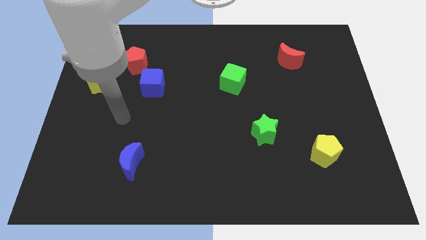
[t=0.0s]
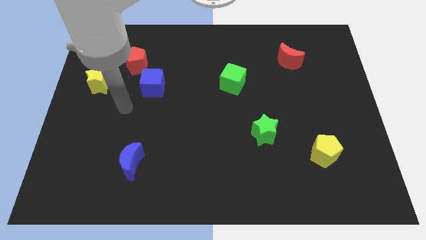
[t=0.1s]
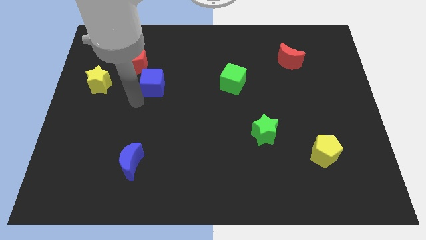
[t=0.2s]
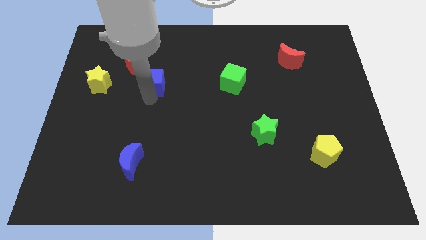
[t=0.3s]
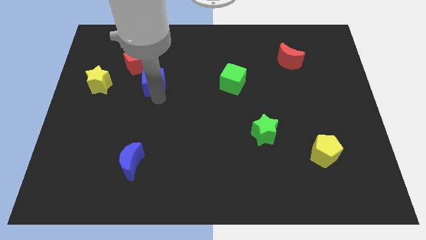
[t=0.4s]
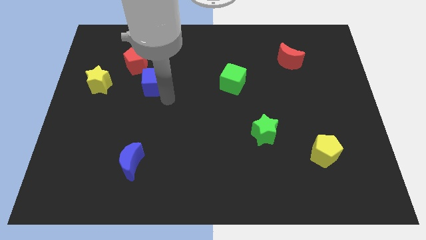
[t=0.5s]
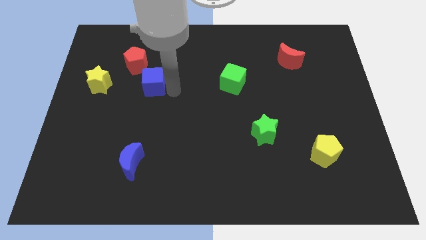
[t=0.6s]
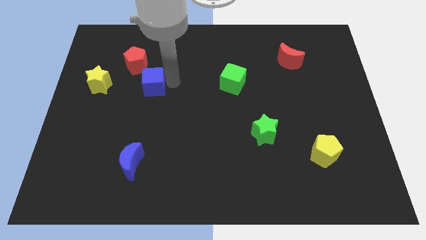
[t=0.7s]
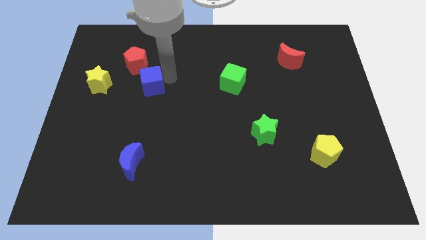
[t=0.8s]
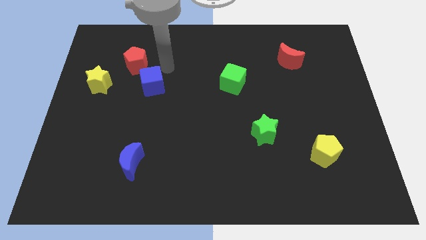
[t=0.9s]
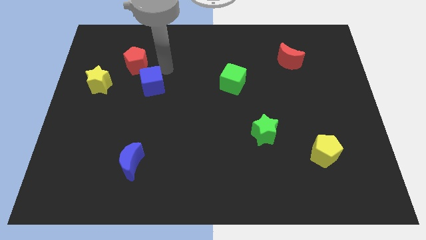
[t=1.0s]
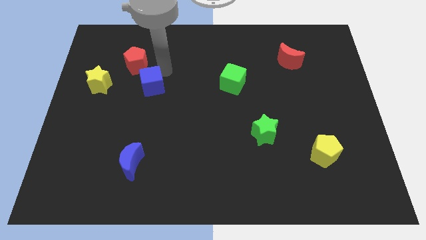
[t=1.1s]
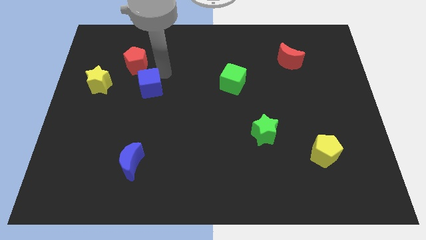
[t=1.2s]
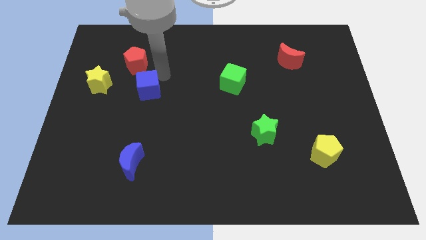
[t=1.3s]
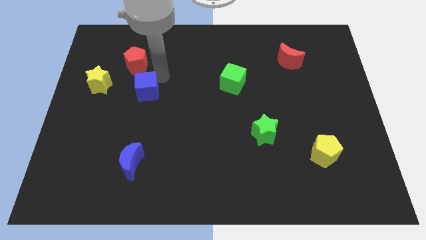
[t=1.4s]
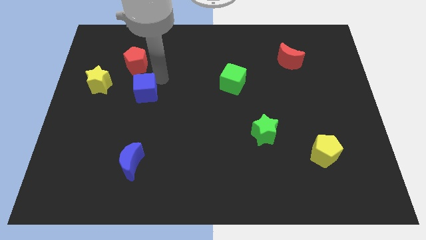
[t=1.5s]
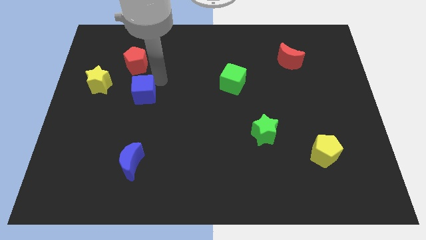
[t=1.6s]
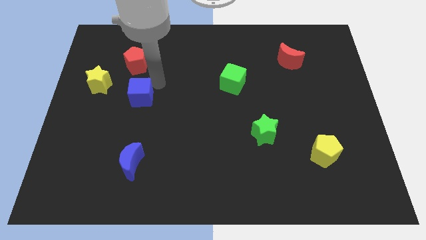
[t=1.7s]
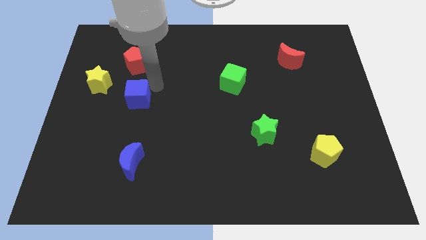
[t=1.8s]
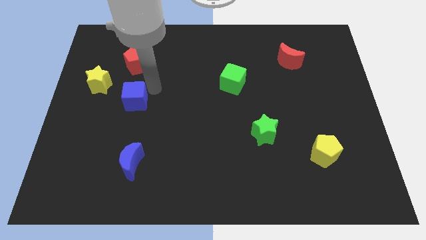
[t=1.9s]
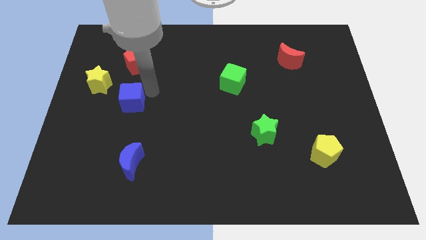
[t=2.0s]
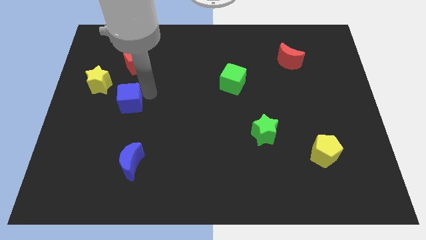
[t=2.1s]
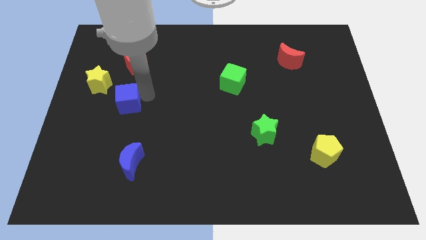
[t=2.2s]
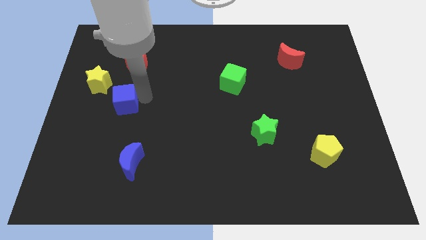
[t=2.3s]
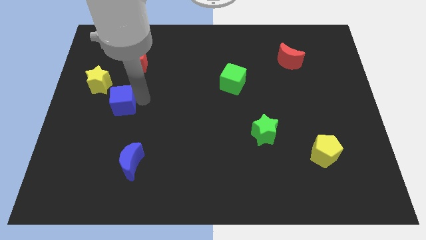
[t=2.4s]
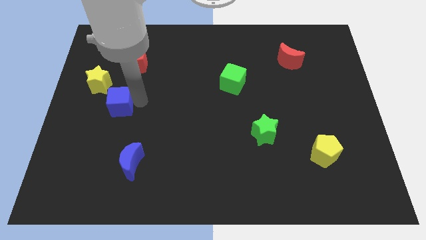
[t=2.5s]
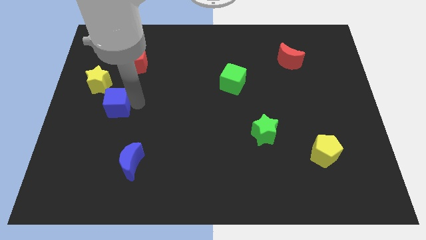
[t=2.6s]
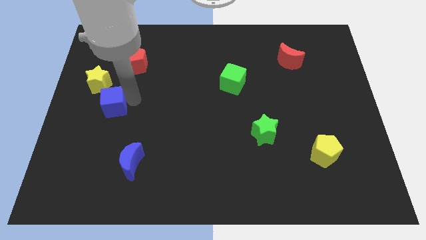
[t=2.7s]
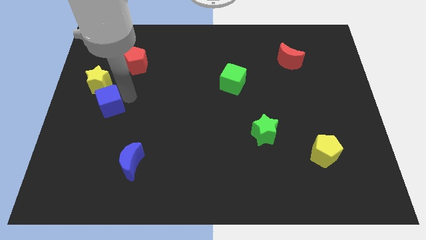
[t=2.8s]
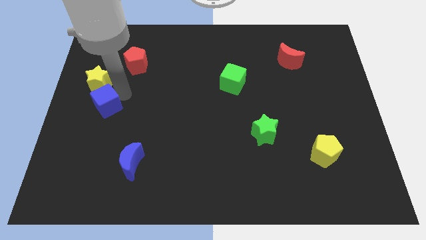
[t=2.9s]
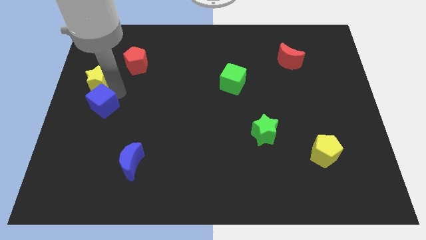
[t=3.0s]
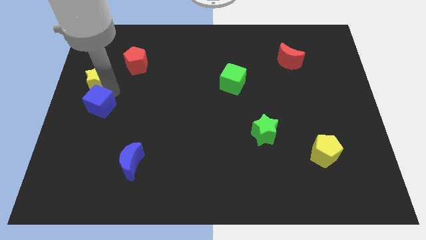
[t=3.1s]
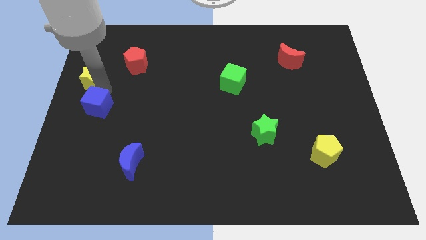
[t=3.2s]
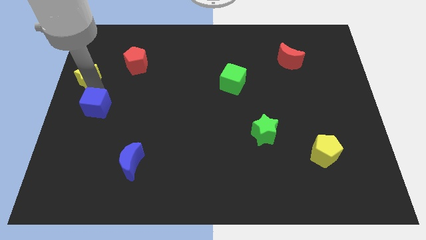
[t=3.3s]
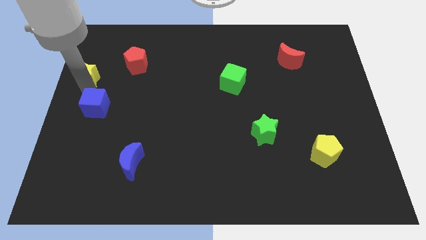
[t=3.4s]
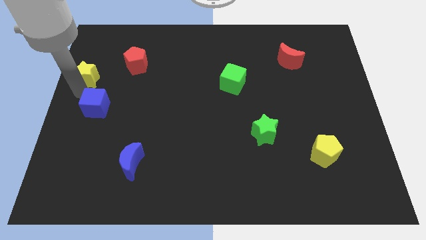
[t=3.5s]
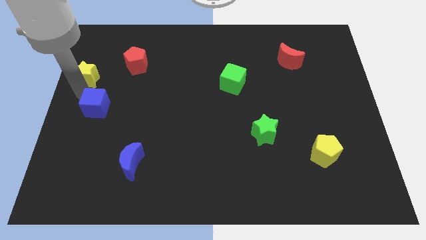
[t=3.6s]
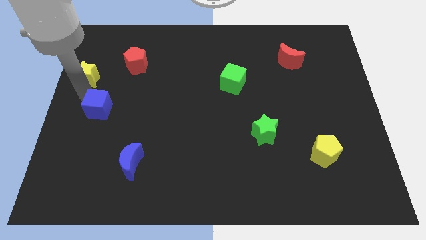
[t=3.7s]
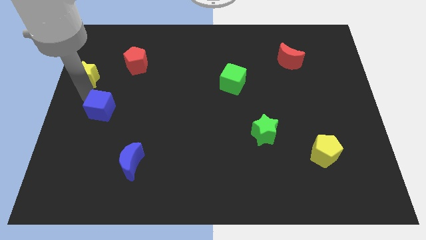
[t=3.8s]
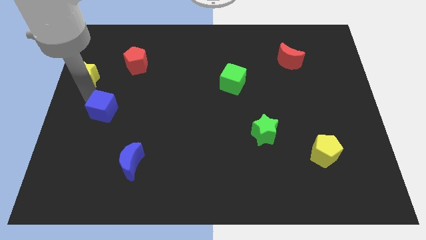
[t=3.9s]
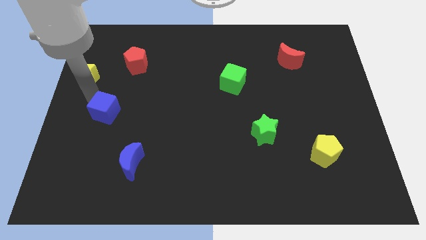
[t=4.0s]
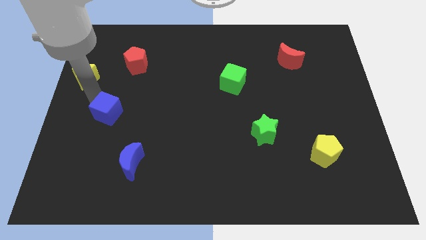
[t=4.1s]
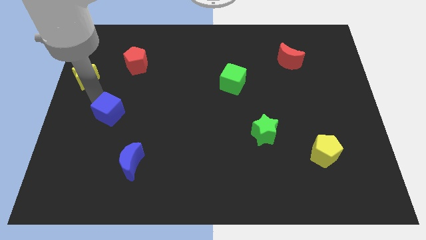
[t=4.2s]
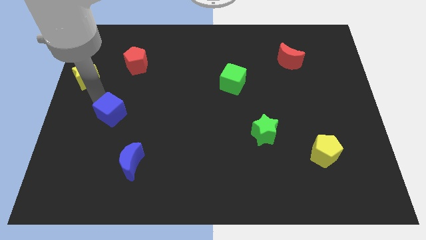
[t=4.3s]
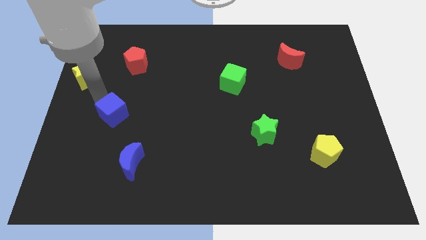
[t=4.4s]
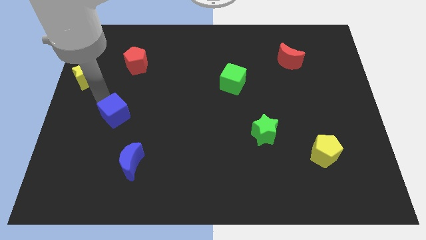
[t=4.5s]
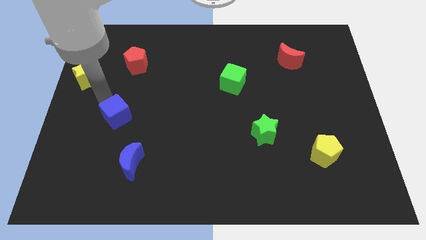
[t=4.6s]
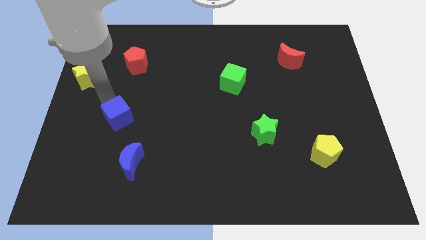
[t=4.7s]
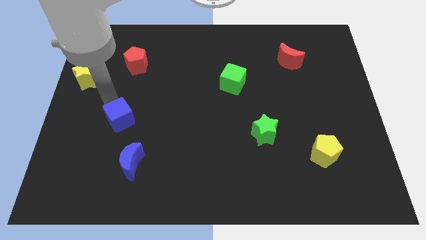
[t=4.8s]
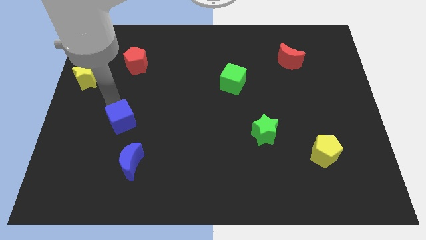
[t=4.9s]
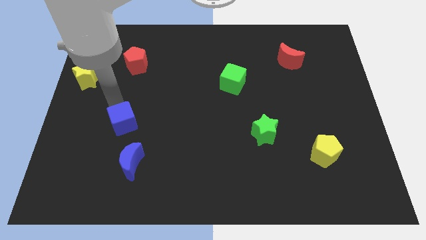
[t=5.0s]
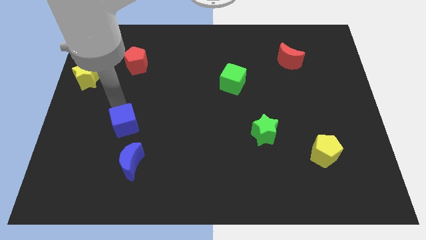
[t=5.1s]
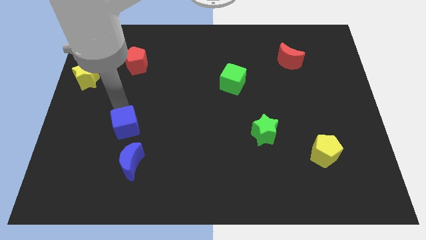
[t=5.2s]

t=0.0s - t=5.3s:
slide the blue cube to the top left of the blue moon

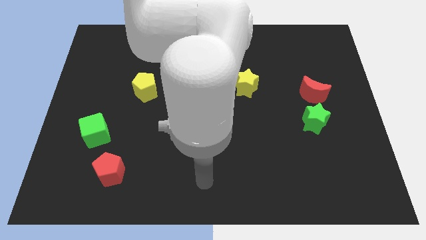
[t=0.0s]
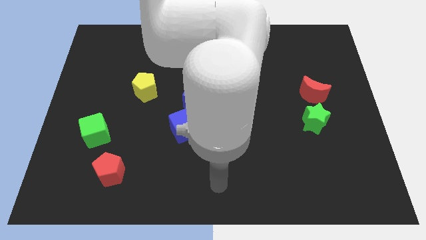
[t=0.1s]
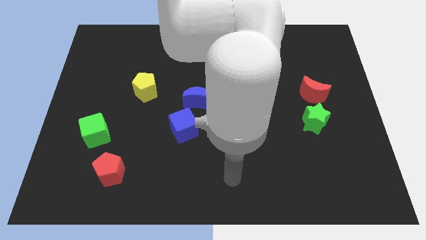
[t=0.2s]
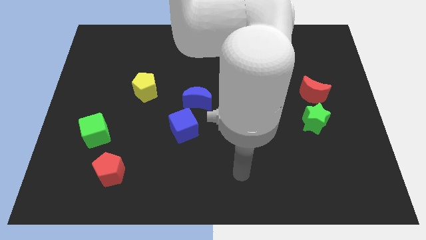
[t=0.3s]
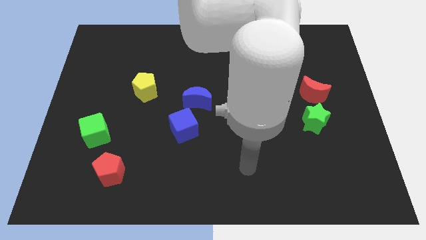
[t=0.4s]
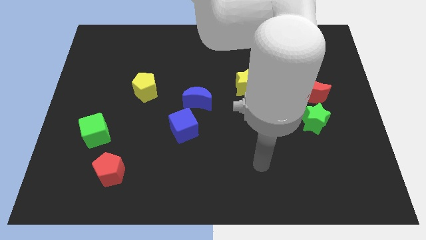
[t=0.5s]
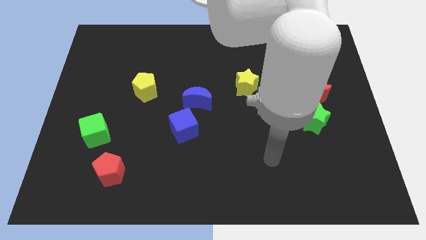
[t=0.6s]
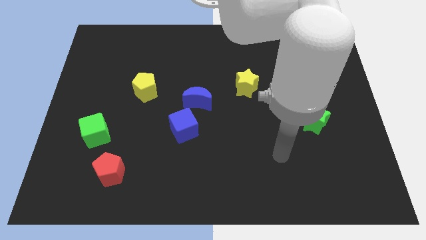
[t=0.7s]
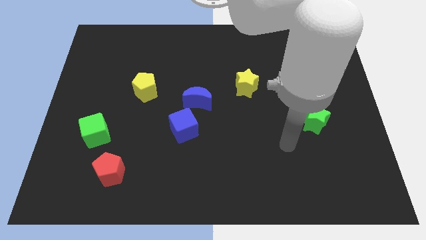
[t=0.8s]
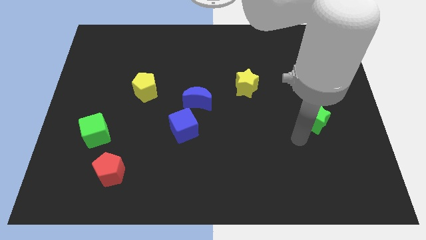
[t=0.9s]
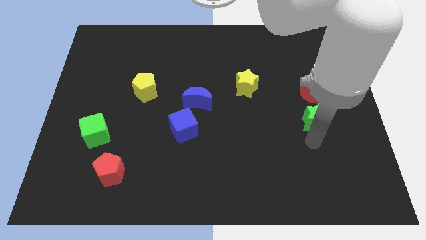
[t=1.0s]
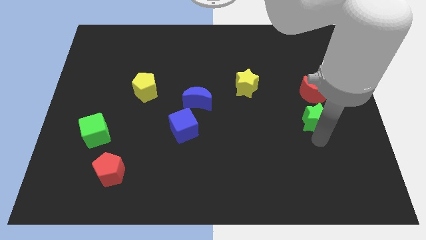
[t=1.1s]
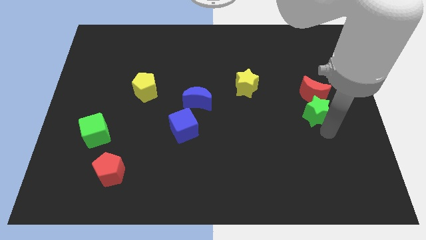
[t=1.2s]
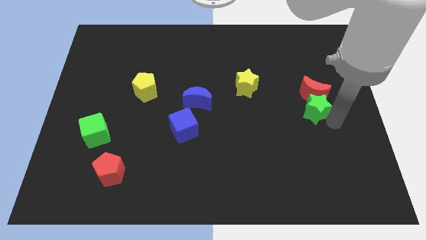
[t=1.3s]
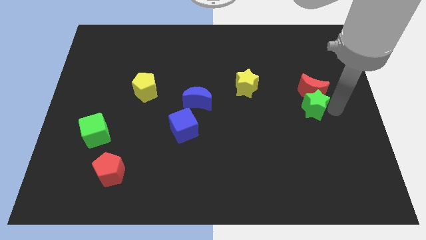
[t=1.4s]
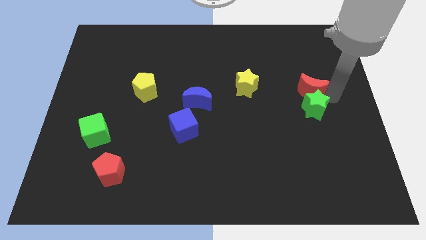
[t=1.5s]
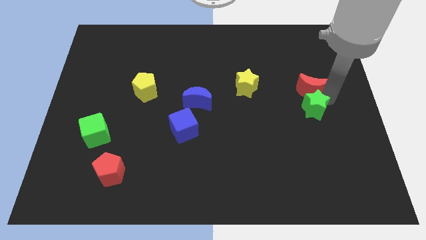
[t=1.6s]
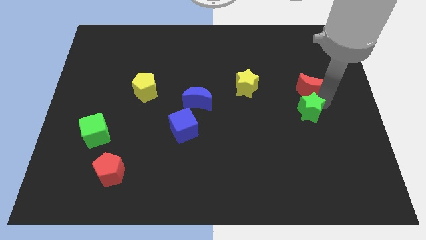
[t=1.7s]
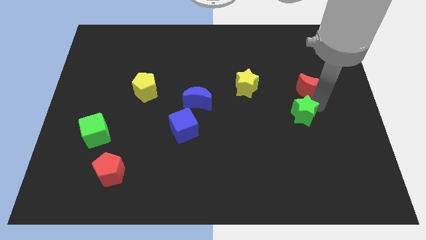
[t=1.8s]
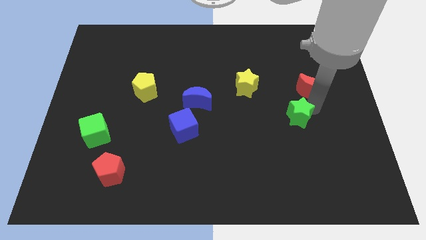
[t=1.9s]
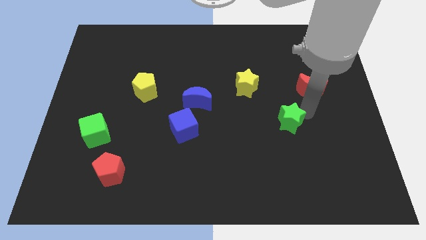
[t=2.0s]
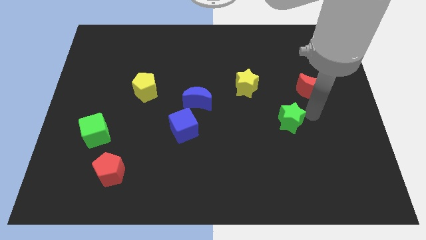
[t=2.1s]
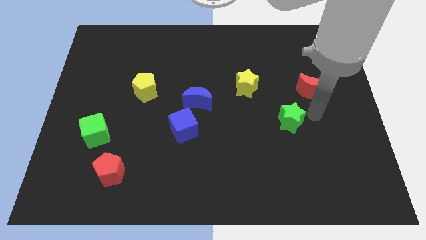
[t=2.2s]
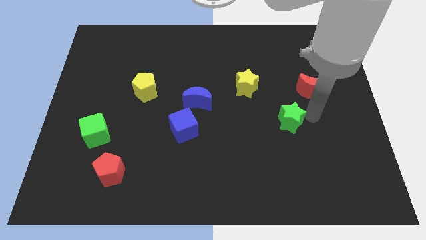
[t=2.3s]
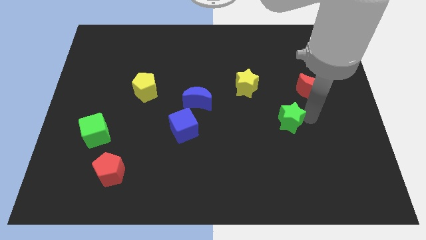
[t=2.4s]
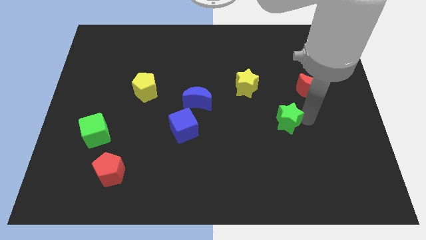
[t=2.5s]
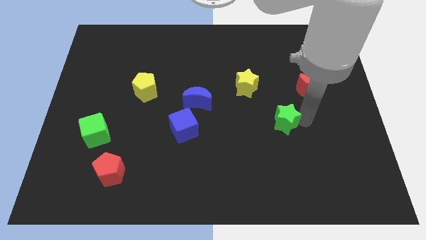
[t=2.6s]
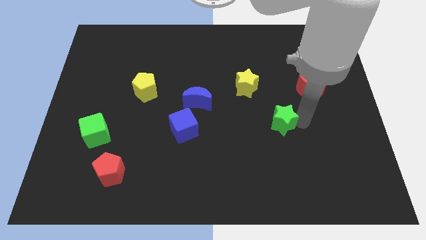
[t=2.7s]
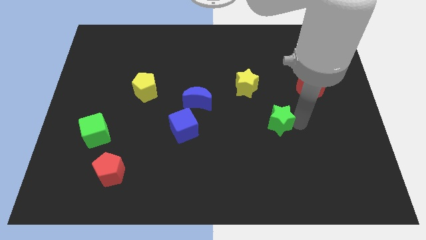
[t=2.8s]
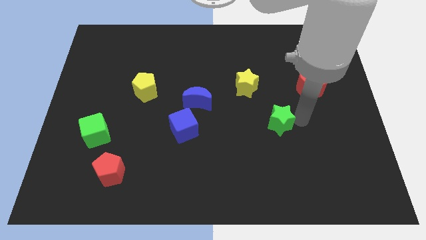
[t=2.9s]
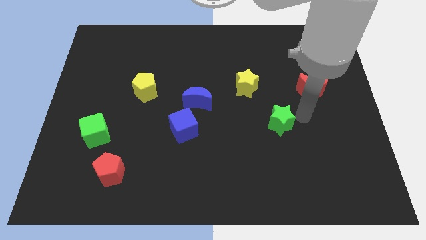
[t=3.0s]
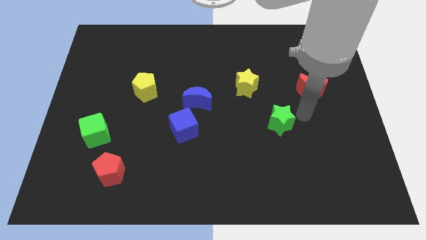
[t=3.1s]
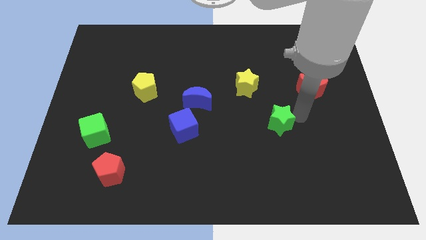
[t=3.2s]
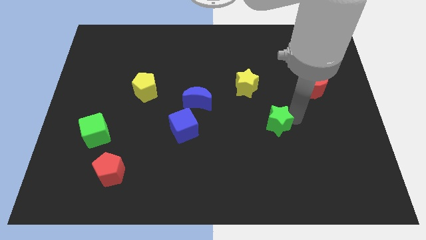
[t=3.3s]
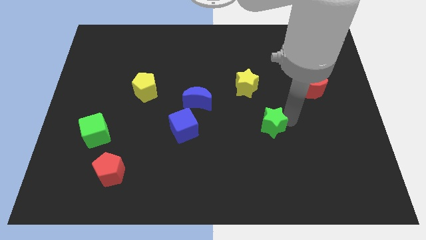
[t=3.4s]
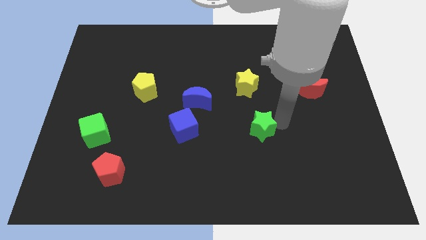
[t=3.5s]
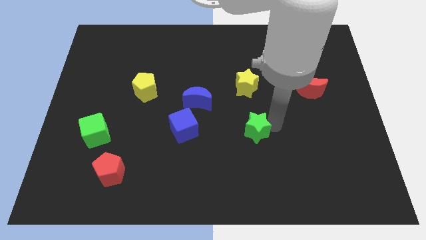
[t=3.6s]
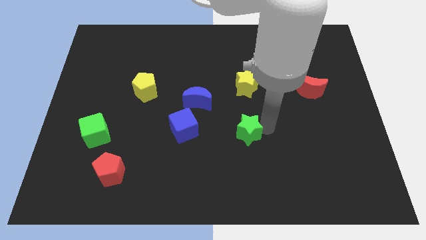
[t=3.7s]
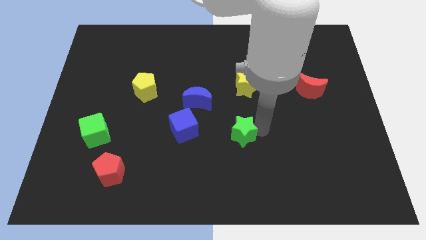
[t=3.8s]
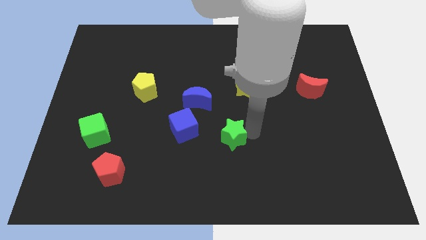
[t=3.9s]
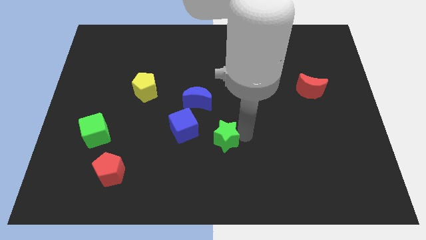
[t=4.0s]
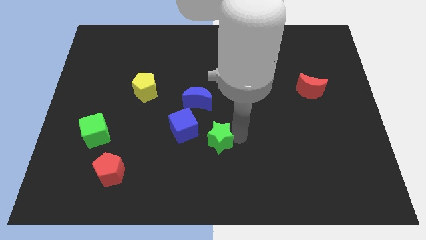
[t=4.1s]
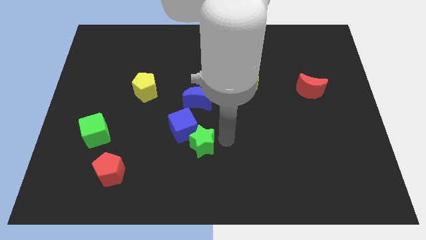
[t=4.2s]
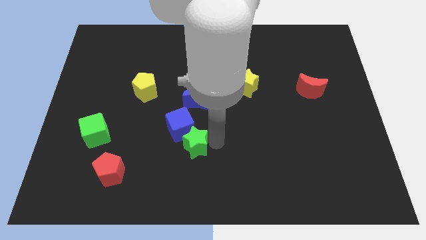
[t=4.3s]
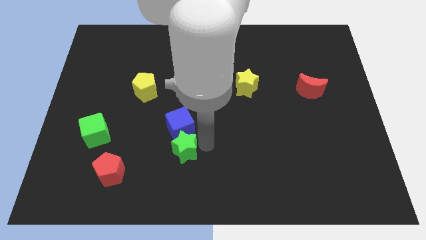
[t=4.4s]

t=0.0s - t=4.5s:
slide the green star to the bottom left side of the blue cube
